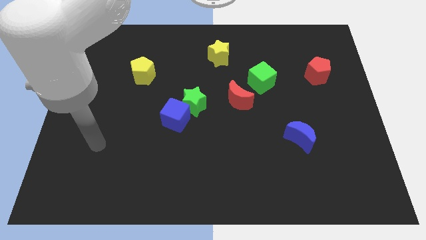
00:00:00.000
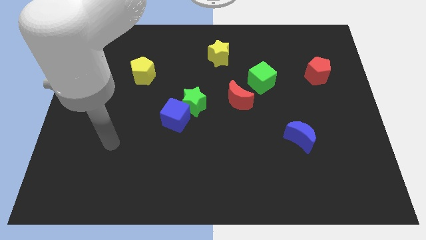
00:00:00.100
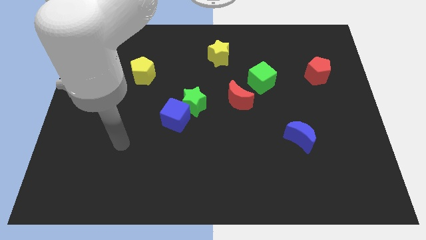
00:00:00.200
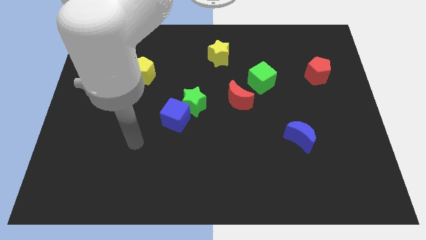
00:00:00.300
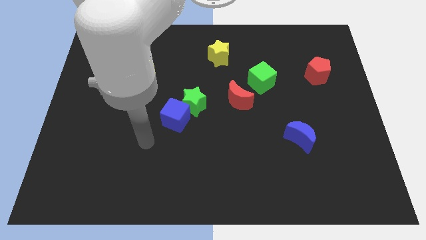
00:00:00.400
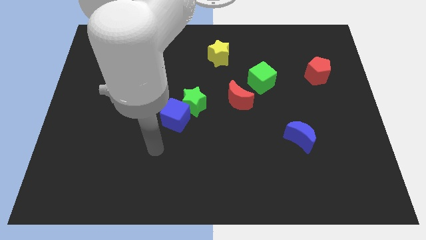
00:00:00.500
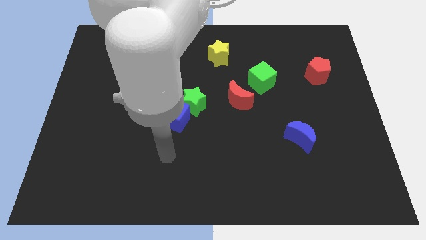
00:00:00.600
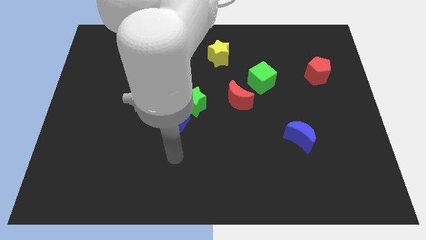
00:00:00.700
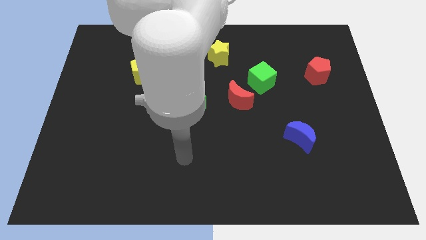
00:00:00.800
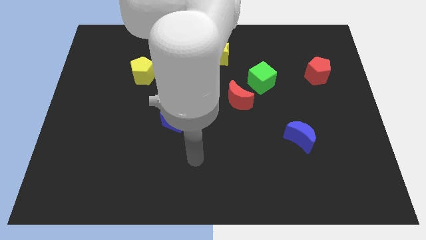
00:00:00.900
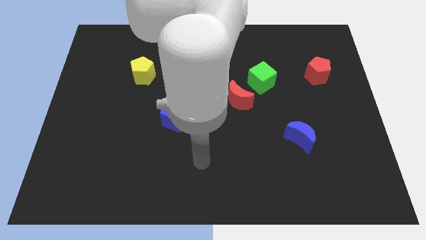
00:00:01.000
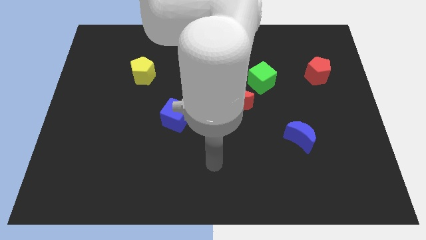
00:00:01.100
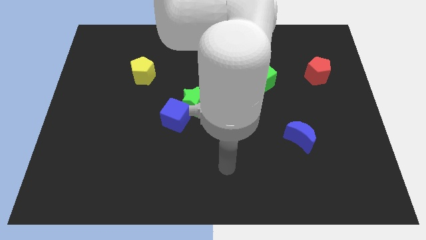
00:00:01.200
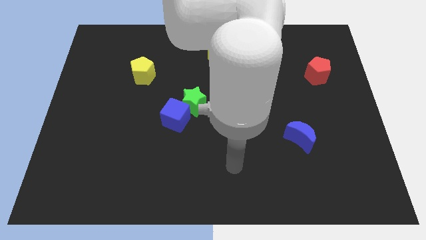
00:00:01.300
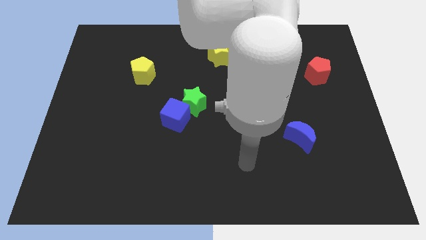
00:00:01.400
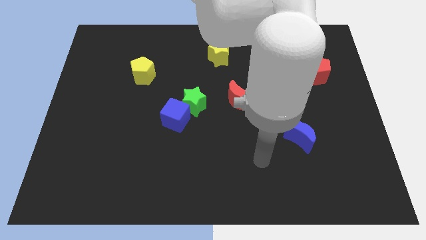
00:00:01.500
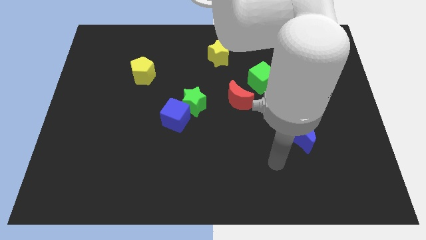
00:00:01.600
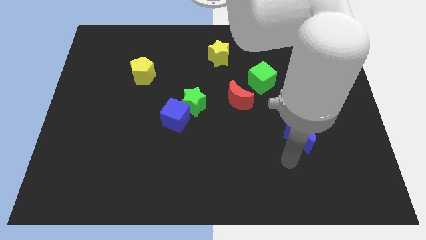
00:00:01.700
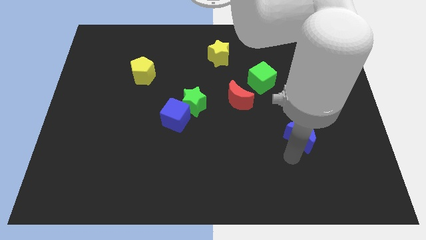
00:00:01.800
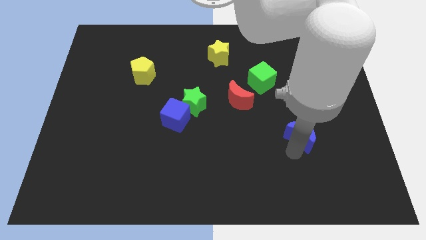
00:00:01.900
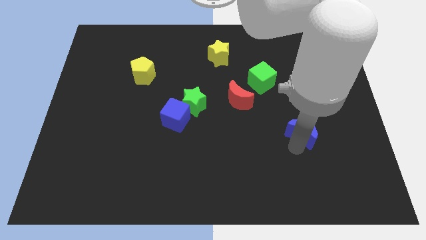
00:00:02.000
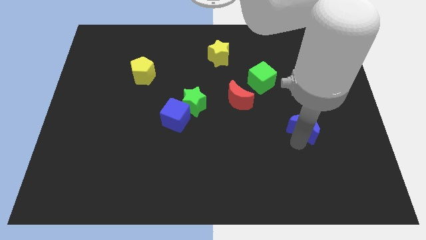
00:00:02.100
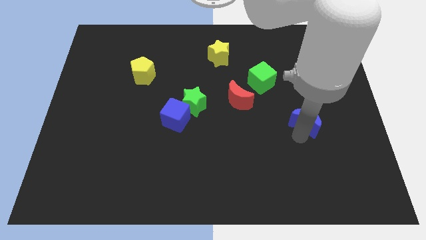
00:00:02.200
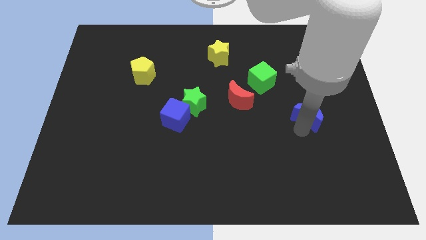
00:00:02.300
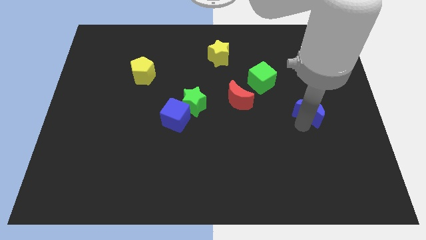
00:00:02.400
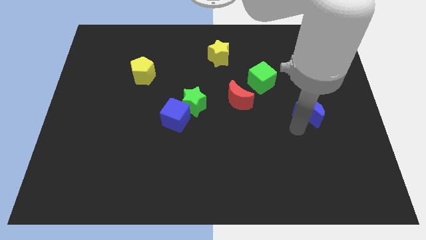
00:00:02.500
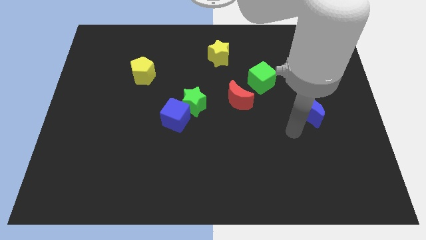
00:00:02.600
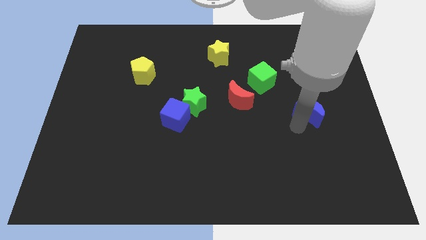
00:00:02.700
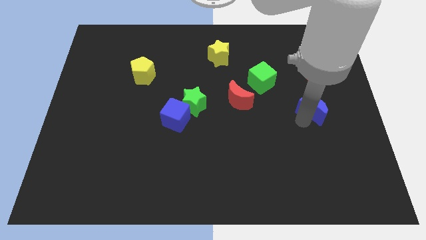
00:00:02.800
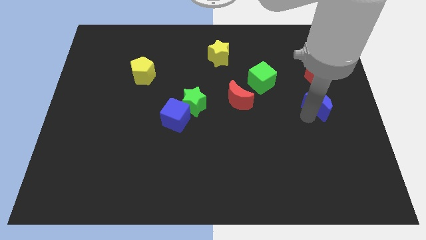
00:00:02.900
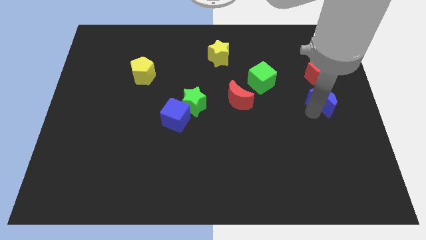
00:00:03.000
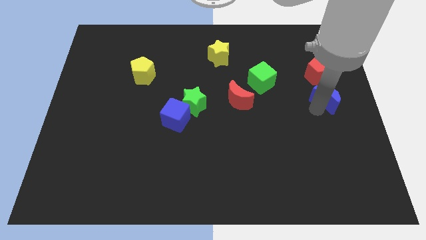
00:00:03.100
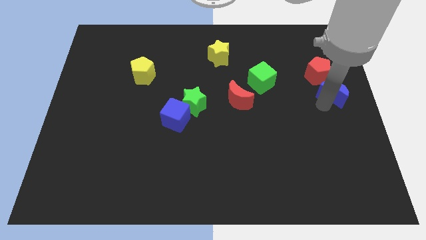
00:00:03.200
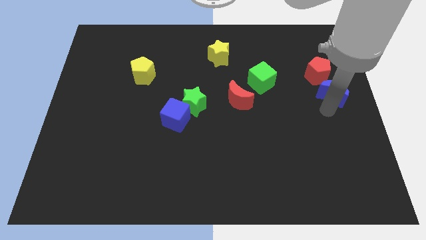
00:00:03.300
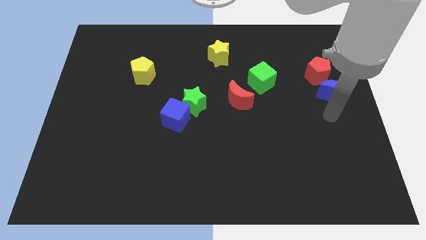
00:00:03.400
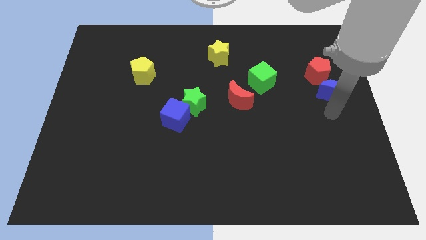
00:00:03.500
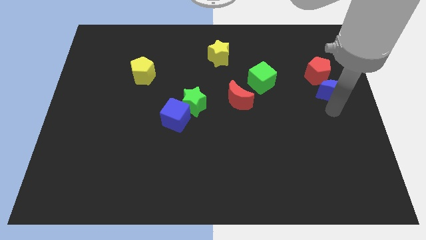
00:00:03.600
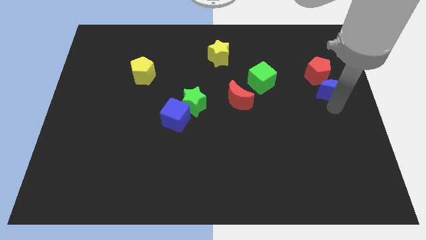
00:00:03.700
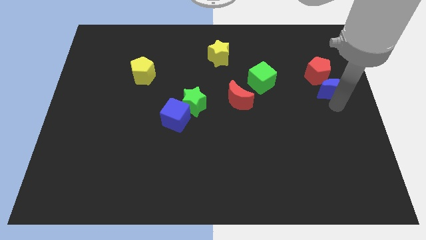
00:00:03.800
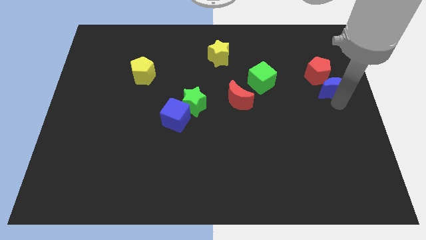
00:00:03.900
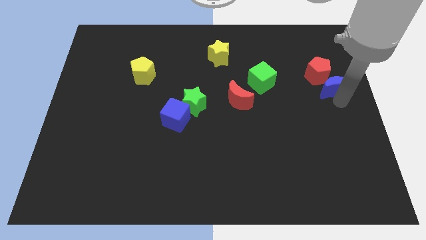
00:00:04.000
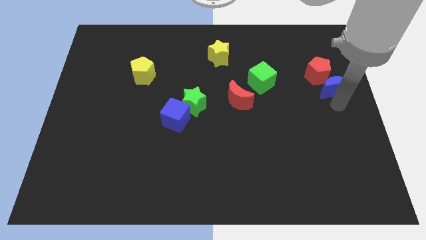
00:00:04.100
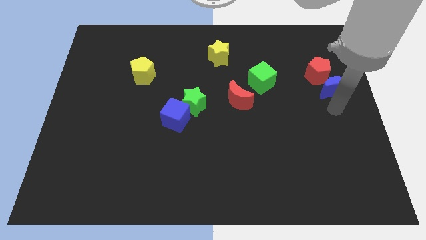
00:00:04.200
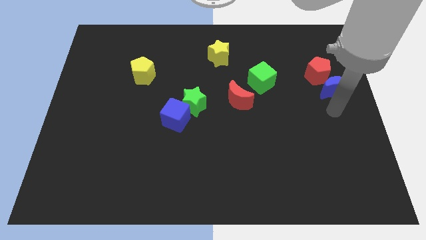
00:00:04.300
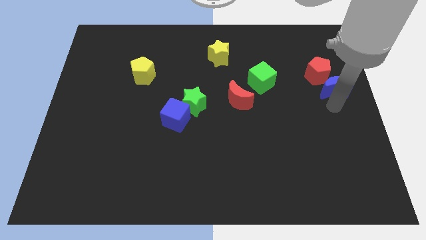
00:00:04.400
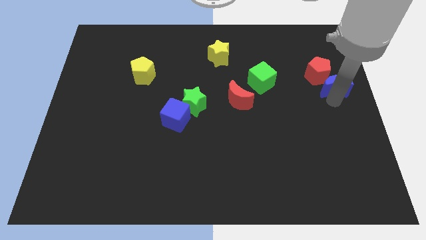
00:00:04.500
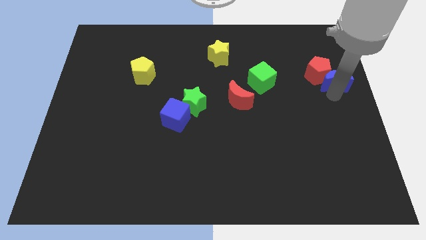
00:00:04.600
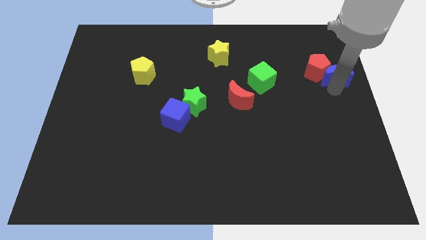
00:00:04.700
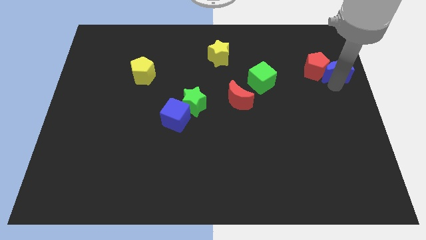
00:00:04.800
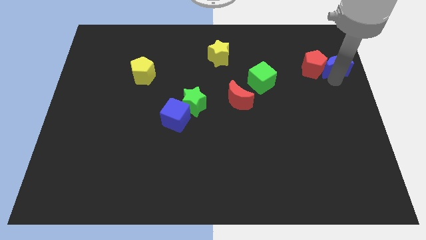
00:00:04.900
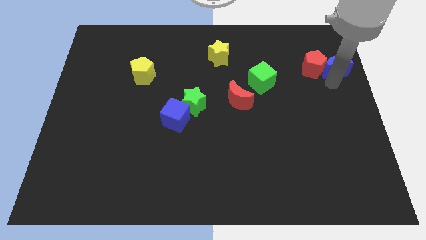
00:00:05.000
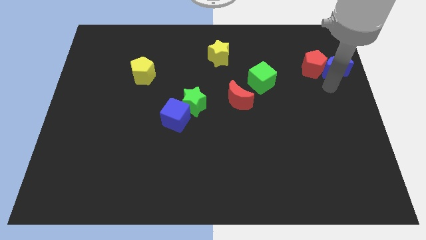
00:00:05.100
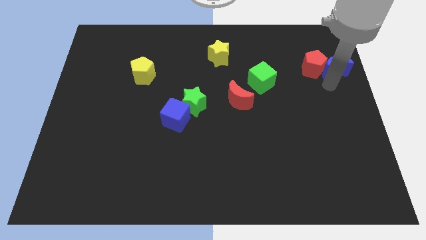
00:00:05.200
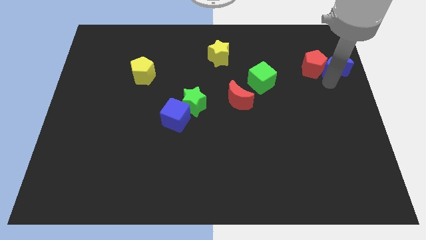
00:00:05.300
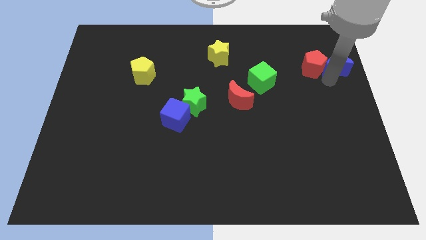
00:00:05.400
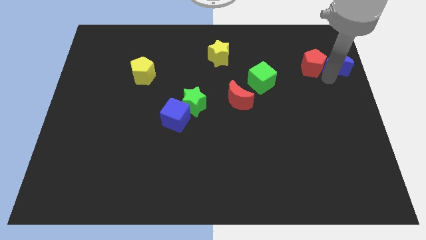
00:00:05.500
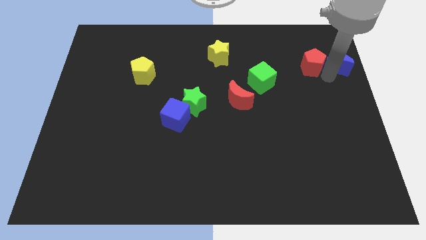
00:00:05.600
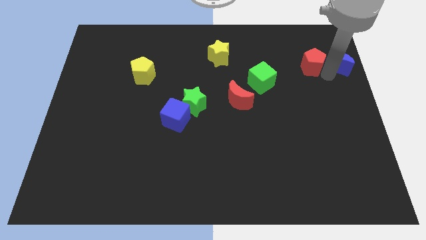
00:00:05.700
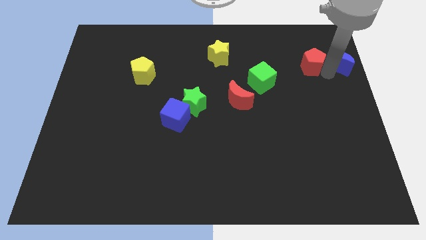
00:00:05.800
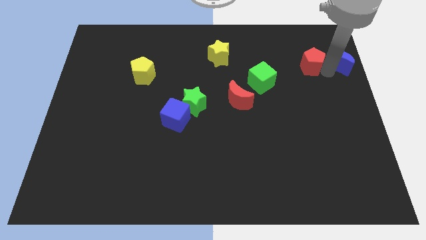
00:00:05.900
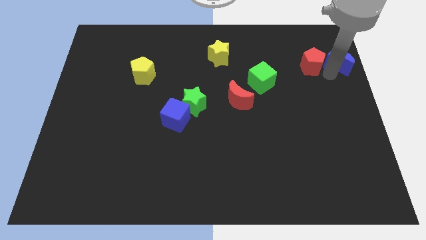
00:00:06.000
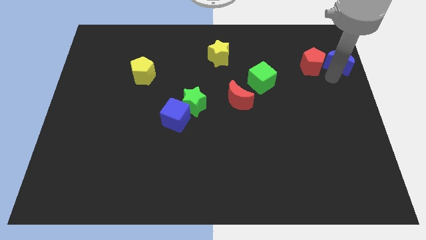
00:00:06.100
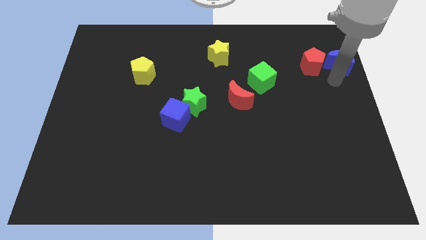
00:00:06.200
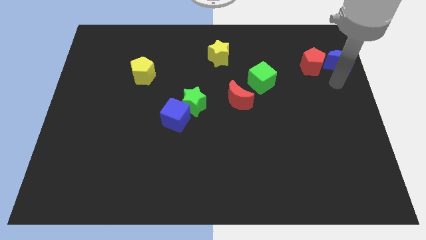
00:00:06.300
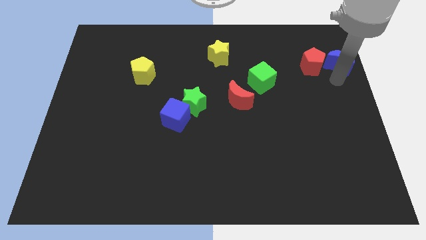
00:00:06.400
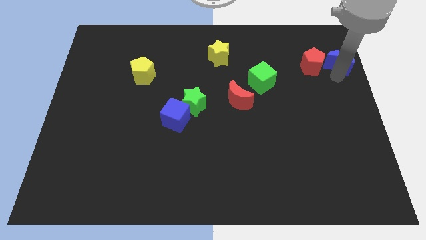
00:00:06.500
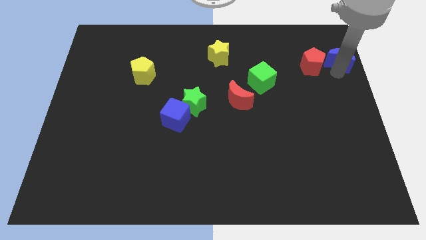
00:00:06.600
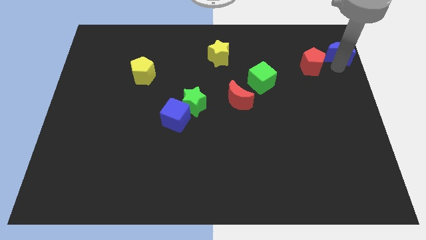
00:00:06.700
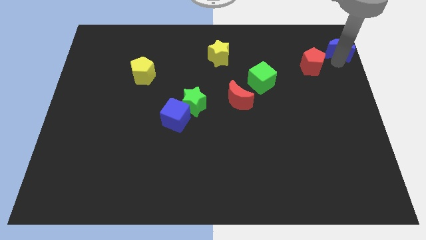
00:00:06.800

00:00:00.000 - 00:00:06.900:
slide the blue moon to the top right of the board
